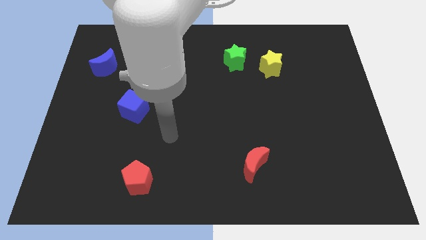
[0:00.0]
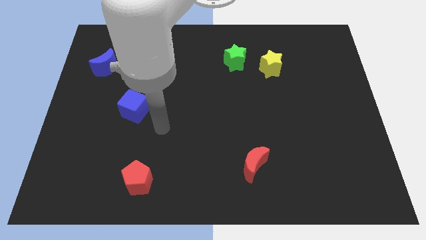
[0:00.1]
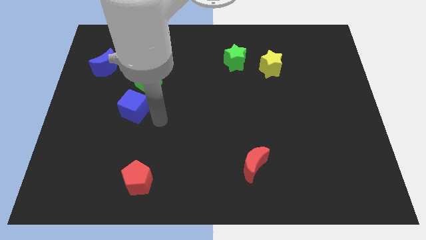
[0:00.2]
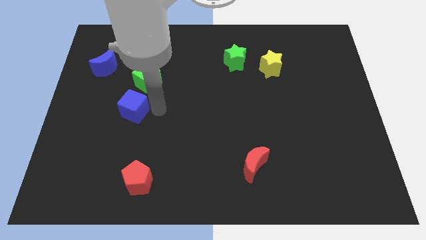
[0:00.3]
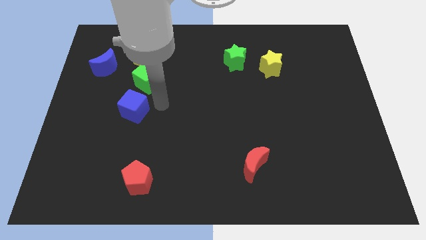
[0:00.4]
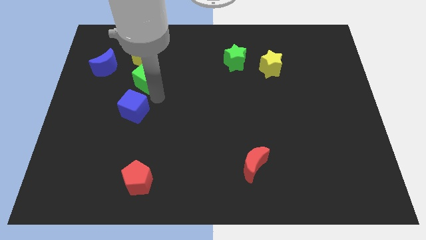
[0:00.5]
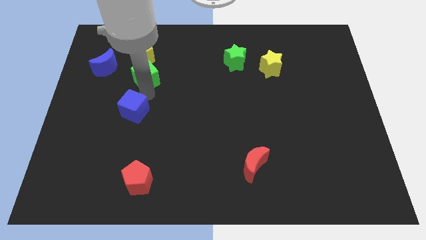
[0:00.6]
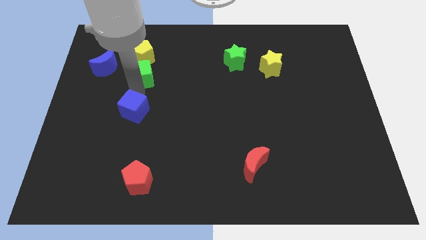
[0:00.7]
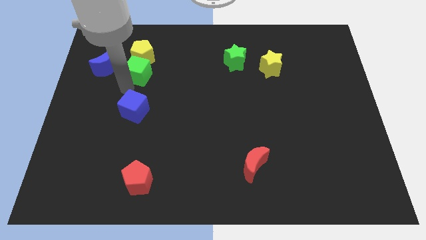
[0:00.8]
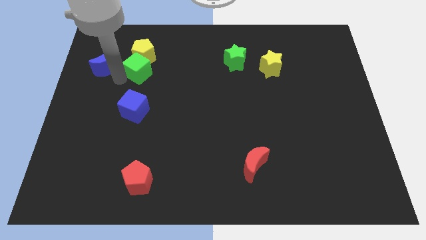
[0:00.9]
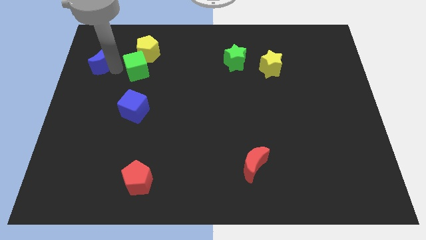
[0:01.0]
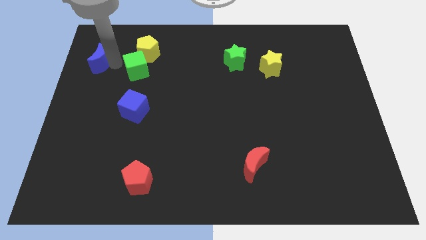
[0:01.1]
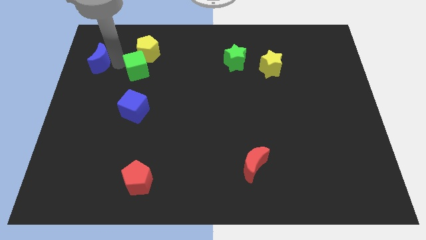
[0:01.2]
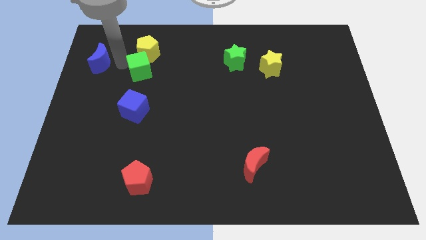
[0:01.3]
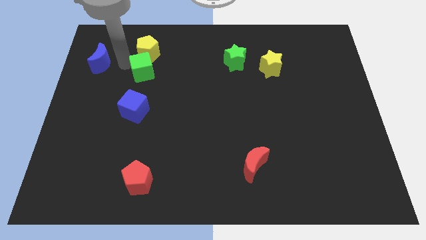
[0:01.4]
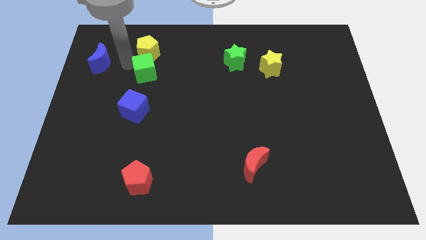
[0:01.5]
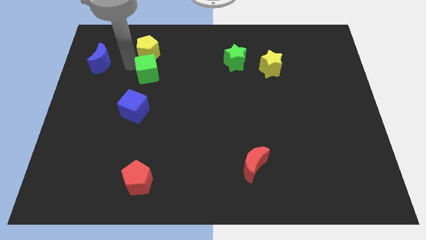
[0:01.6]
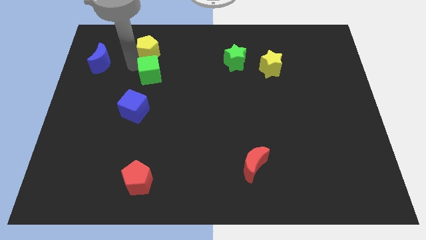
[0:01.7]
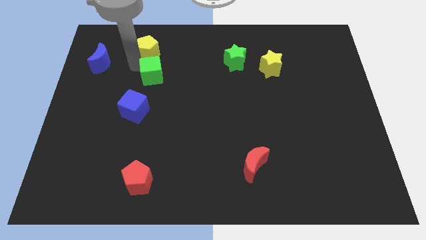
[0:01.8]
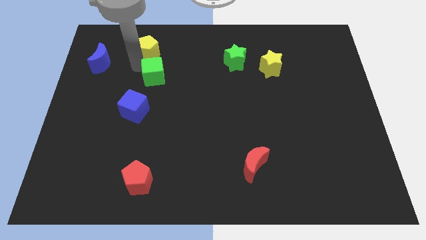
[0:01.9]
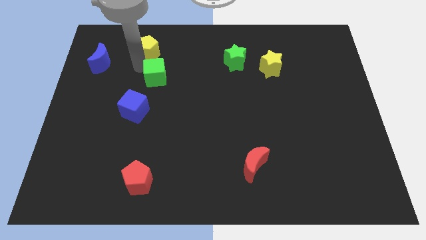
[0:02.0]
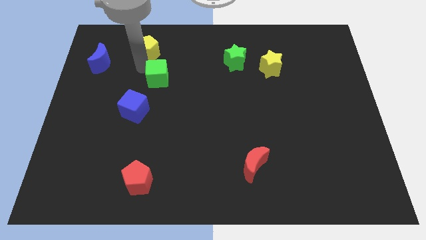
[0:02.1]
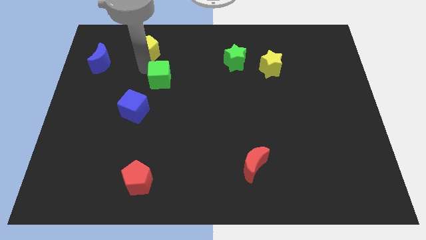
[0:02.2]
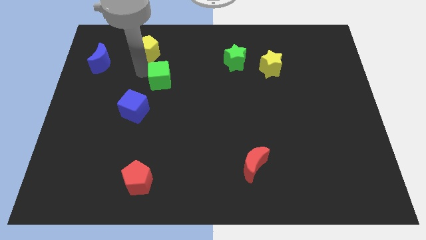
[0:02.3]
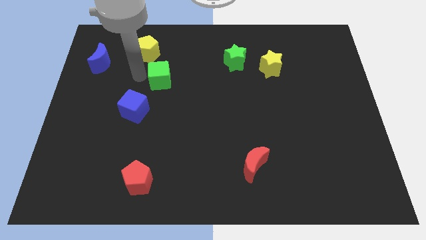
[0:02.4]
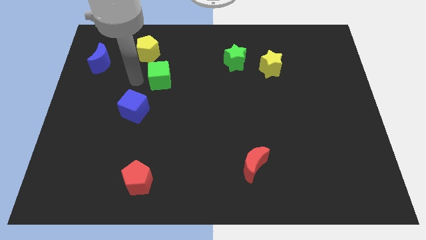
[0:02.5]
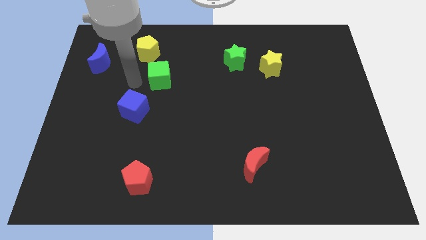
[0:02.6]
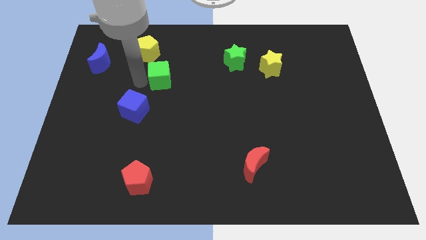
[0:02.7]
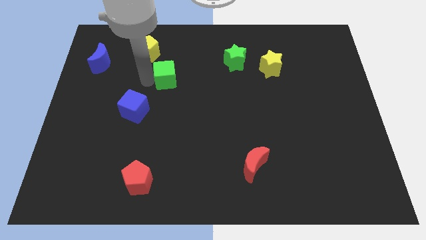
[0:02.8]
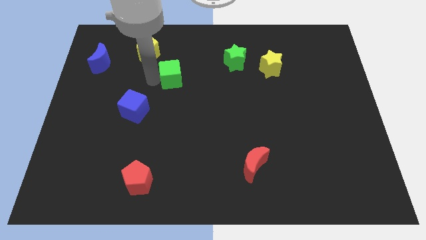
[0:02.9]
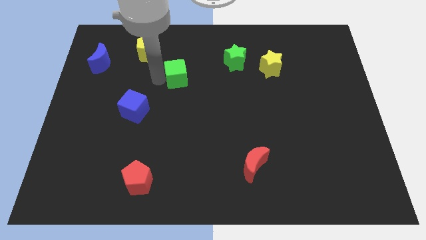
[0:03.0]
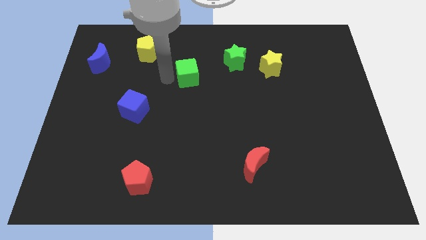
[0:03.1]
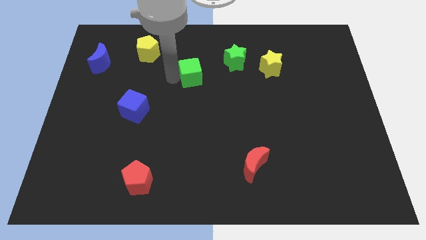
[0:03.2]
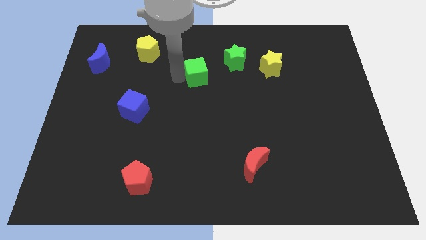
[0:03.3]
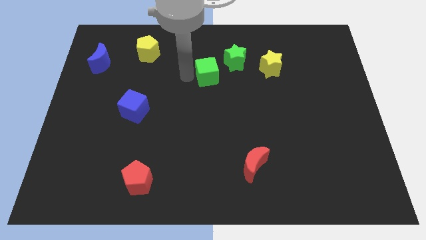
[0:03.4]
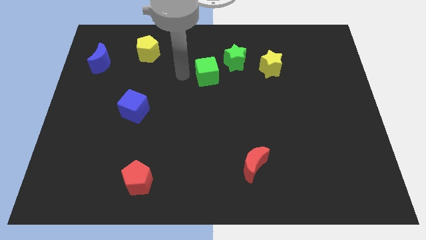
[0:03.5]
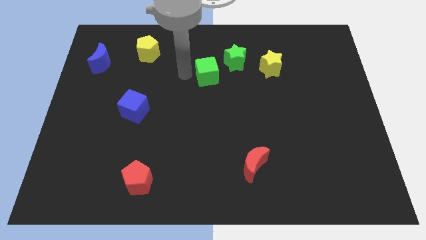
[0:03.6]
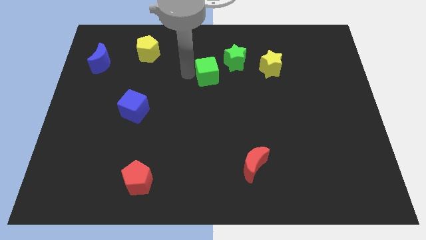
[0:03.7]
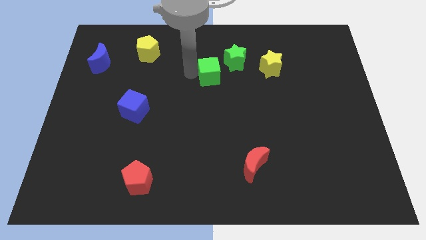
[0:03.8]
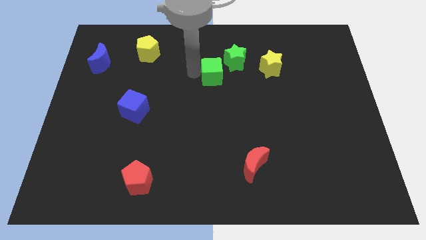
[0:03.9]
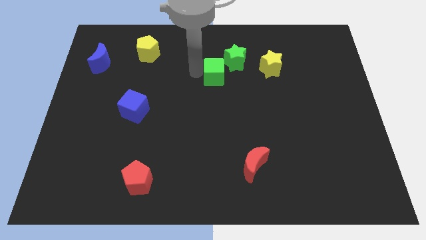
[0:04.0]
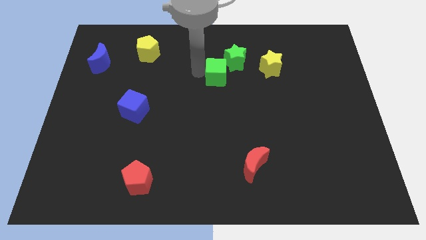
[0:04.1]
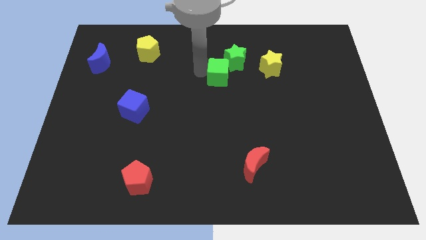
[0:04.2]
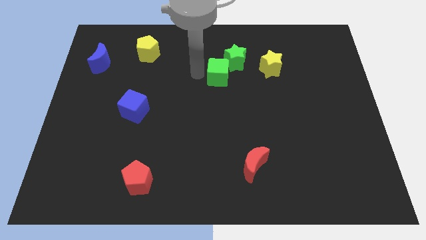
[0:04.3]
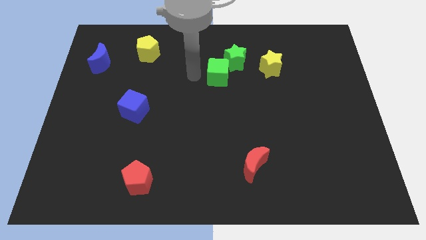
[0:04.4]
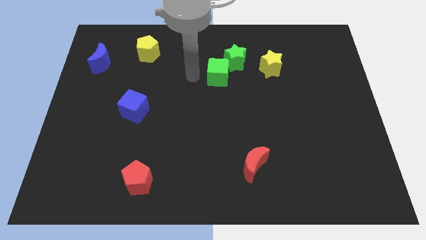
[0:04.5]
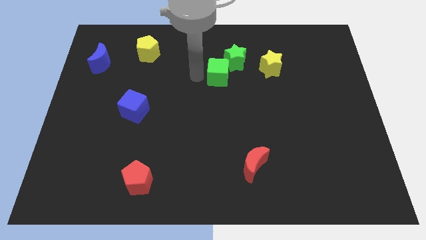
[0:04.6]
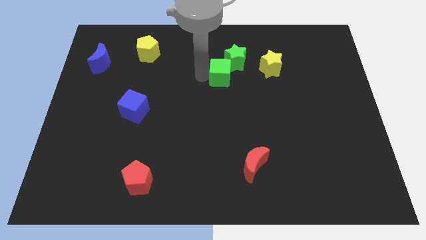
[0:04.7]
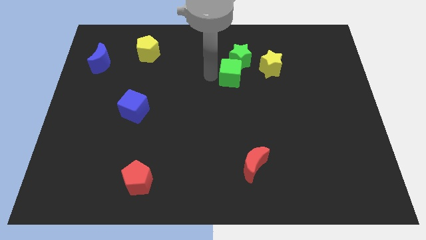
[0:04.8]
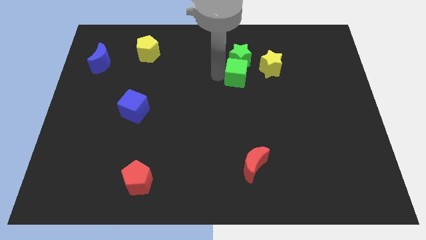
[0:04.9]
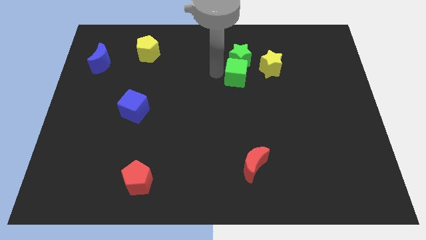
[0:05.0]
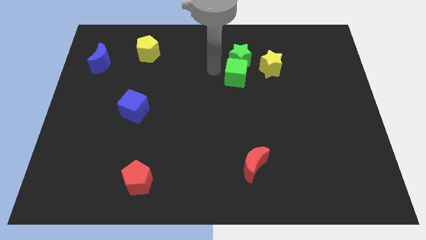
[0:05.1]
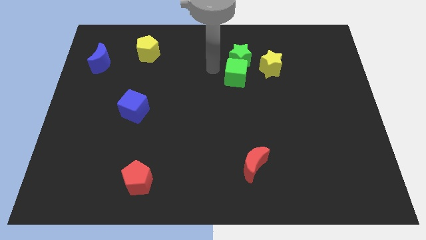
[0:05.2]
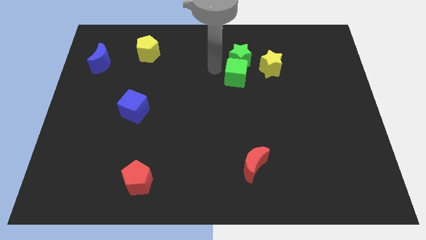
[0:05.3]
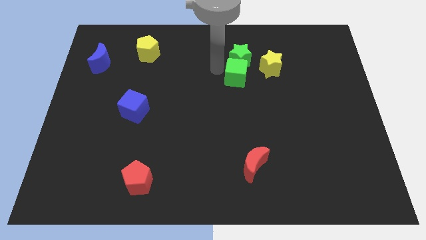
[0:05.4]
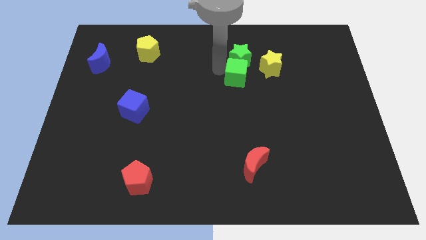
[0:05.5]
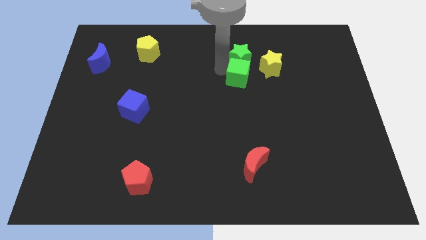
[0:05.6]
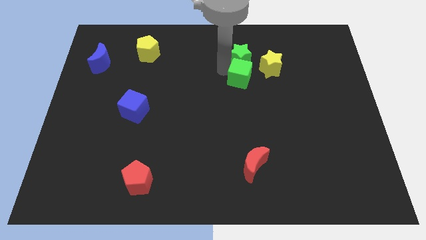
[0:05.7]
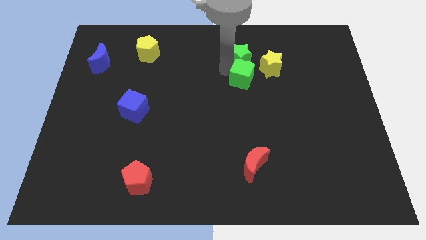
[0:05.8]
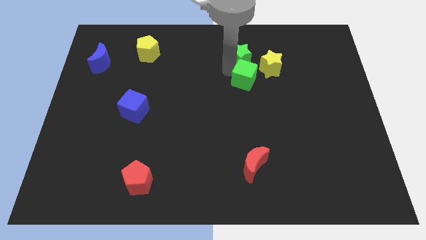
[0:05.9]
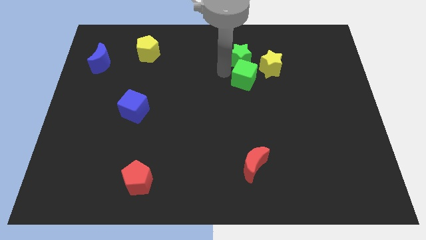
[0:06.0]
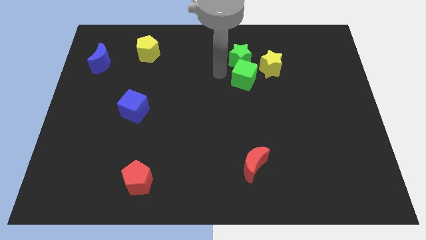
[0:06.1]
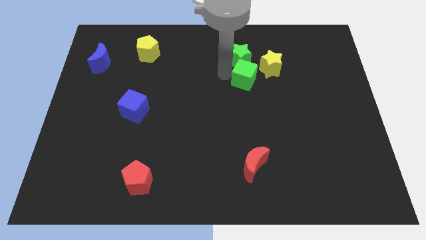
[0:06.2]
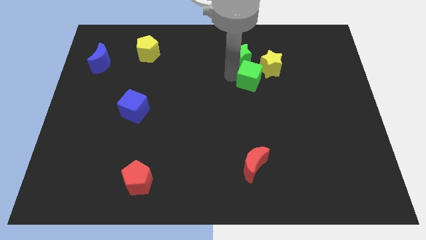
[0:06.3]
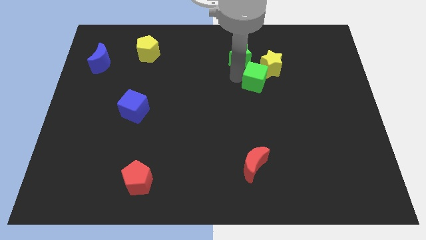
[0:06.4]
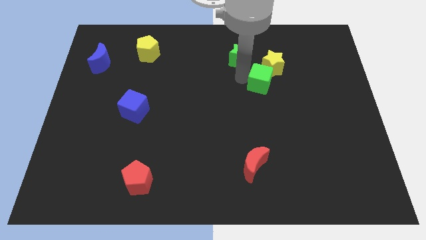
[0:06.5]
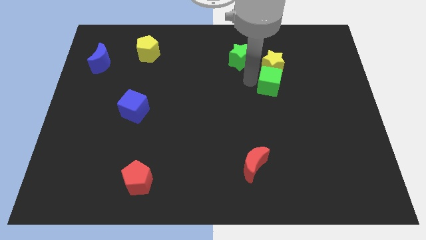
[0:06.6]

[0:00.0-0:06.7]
put the green cube diagonally down and to the right of the yellow star
